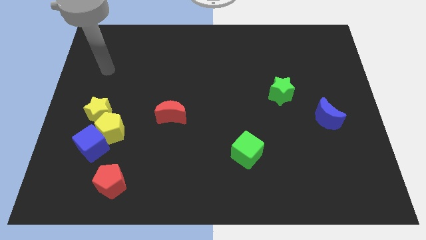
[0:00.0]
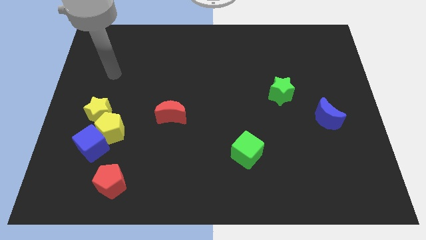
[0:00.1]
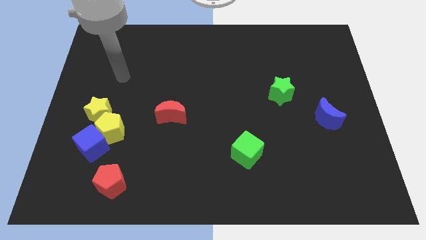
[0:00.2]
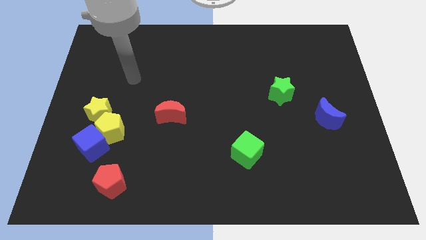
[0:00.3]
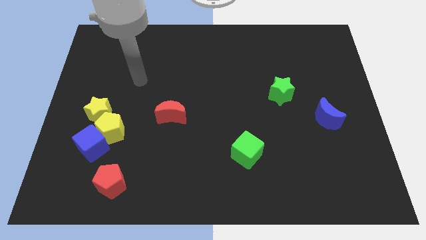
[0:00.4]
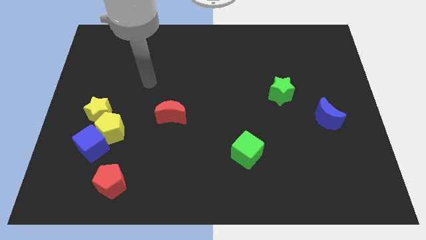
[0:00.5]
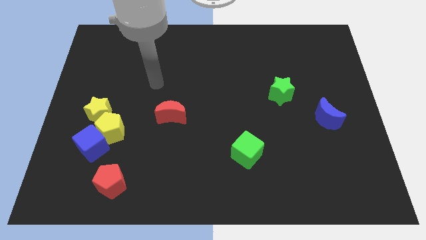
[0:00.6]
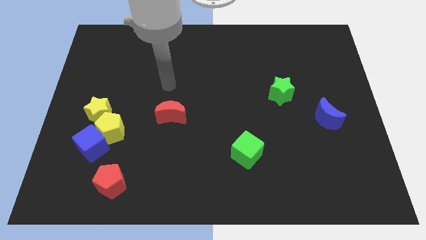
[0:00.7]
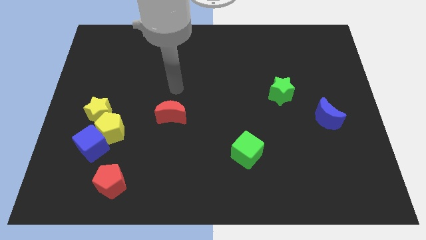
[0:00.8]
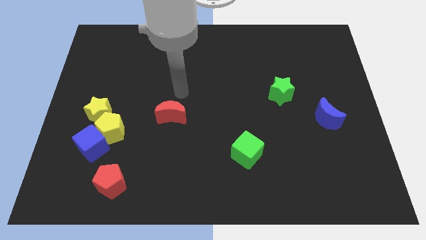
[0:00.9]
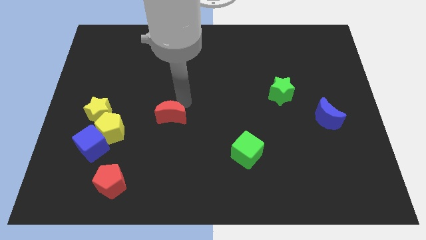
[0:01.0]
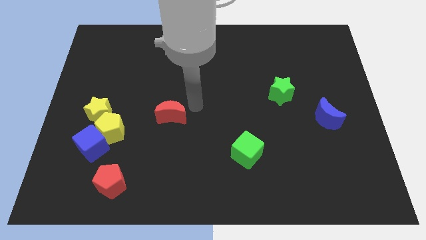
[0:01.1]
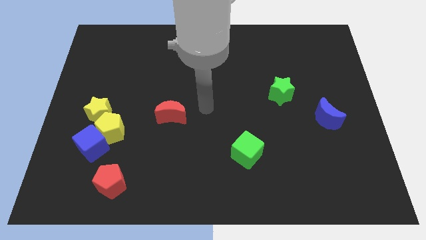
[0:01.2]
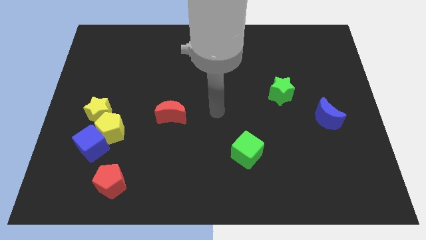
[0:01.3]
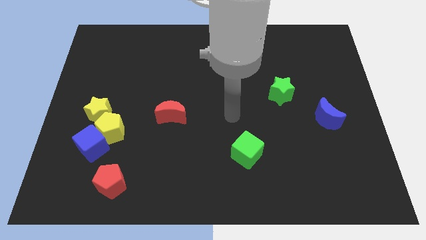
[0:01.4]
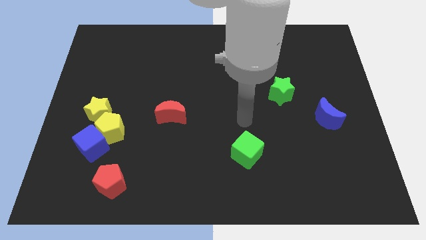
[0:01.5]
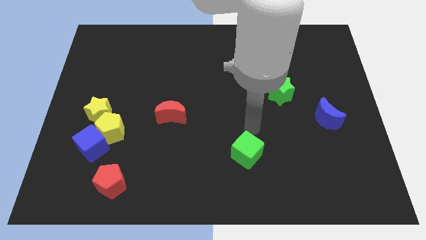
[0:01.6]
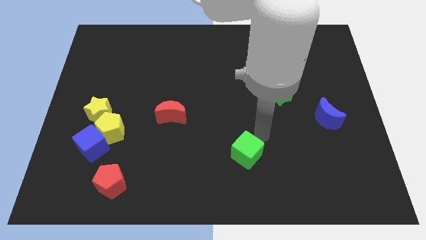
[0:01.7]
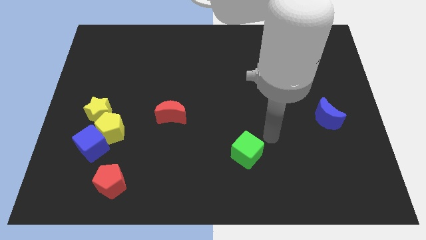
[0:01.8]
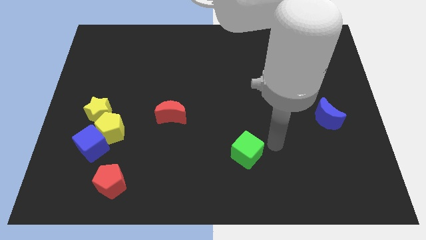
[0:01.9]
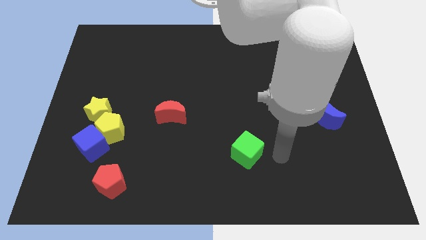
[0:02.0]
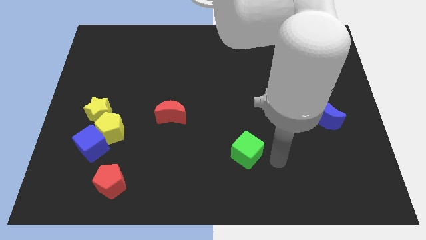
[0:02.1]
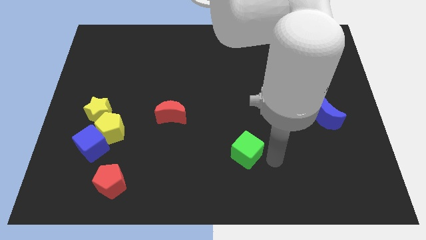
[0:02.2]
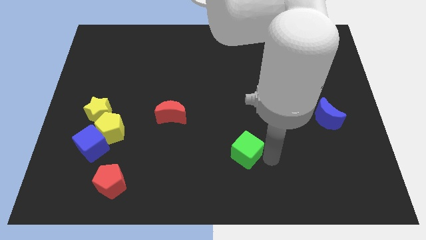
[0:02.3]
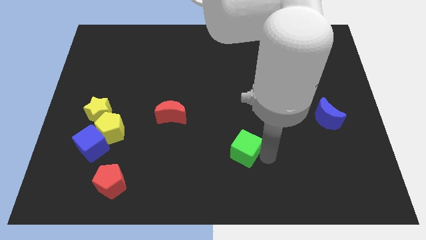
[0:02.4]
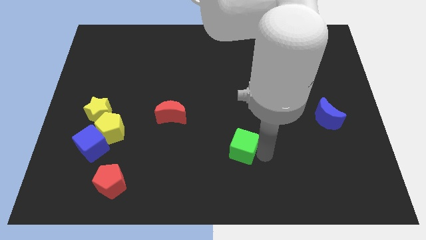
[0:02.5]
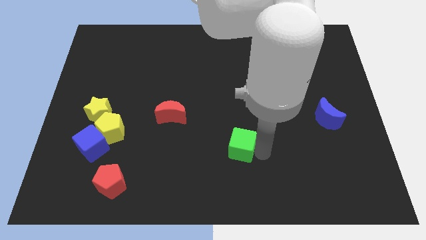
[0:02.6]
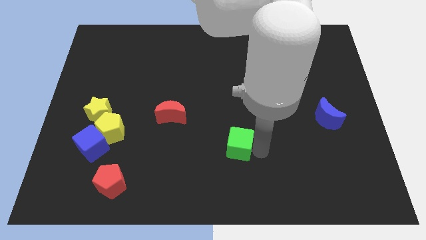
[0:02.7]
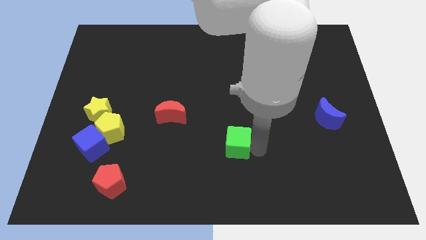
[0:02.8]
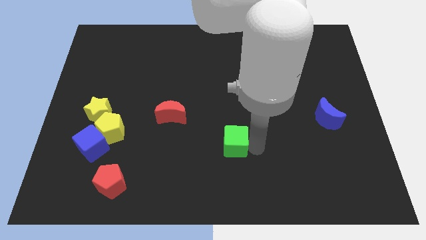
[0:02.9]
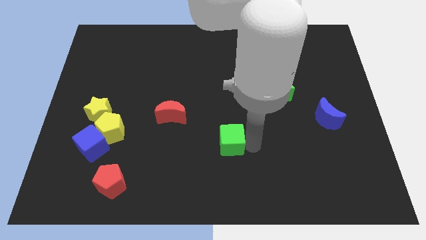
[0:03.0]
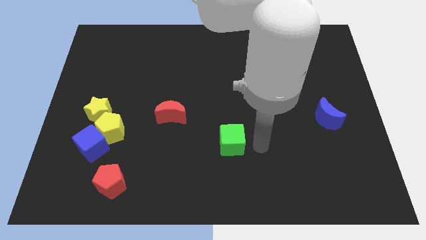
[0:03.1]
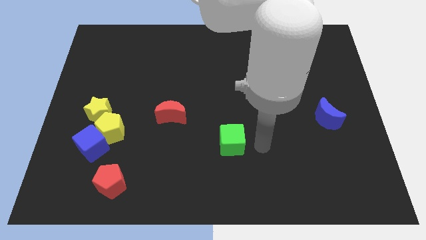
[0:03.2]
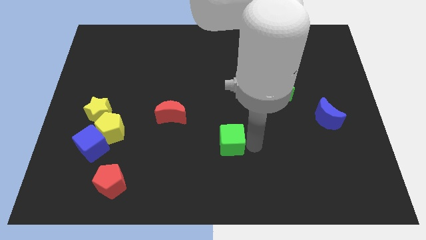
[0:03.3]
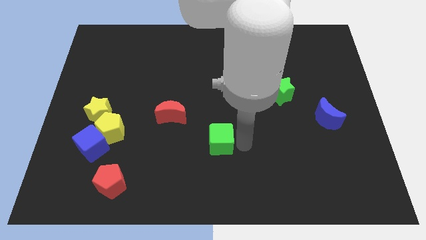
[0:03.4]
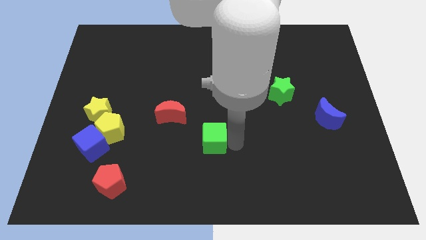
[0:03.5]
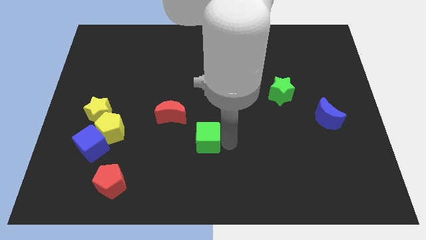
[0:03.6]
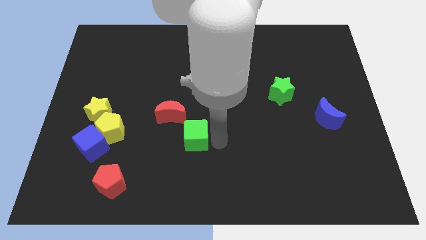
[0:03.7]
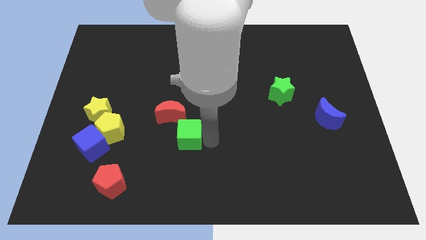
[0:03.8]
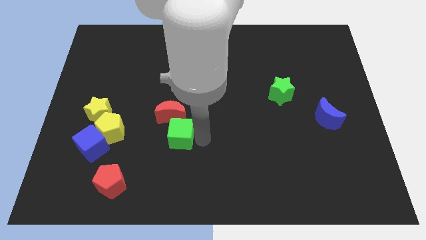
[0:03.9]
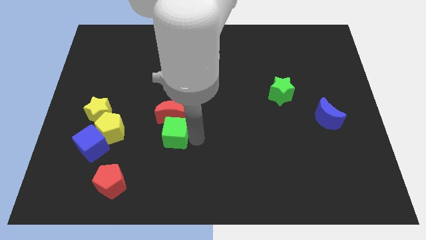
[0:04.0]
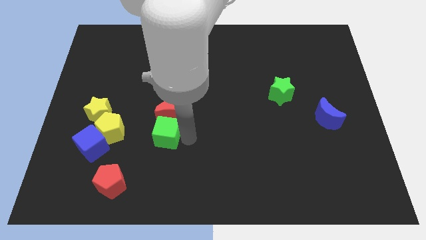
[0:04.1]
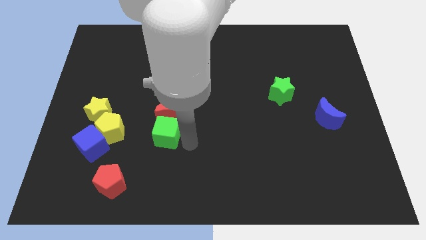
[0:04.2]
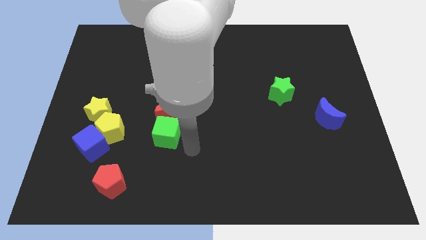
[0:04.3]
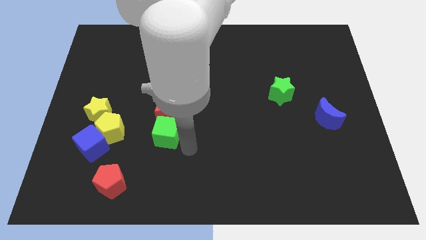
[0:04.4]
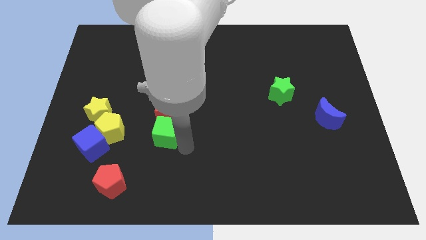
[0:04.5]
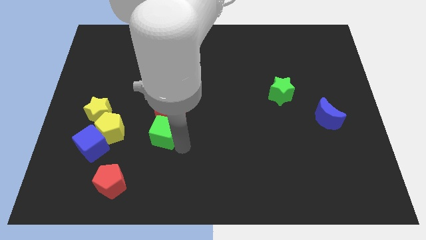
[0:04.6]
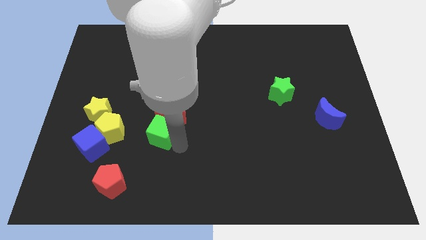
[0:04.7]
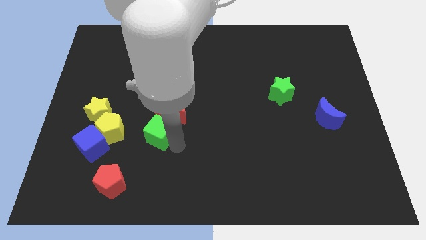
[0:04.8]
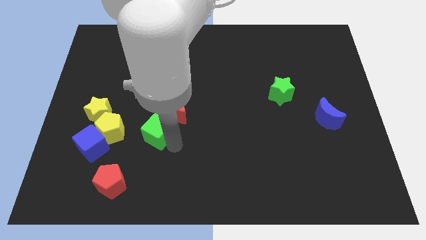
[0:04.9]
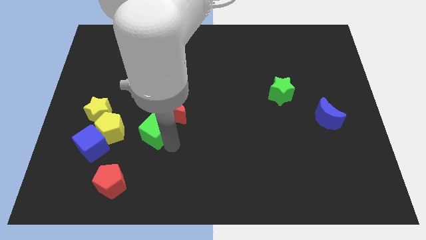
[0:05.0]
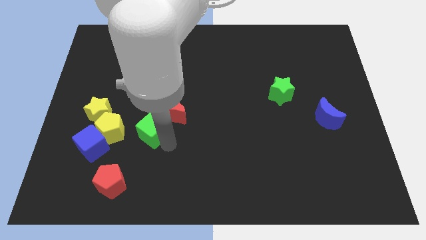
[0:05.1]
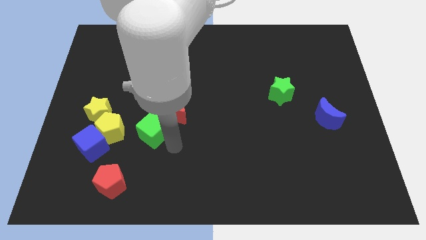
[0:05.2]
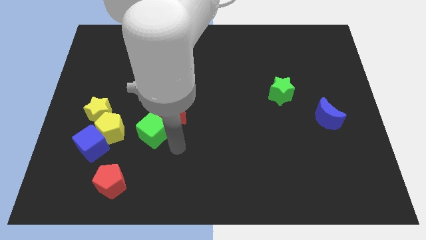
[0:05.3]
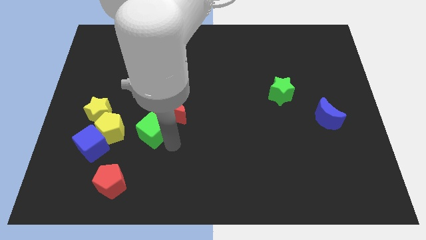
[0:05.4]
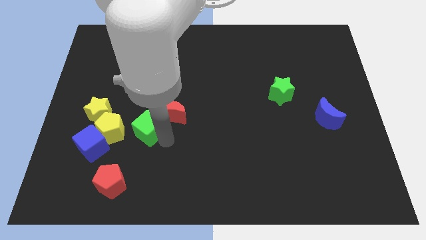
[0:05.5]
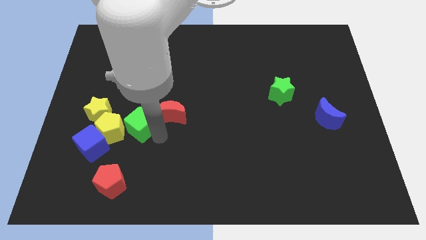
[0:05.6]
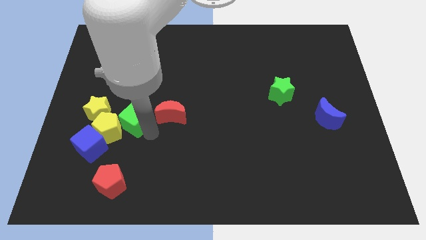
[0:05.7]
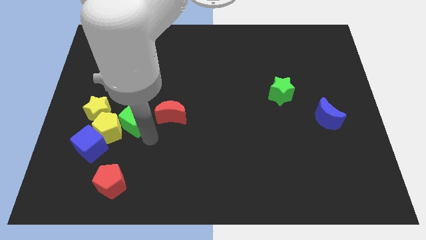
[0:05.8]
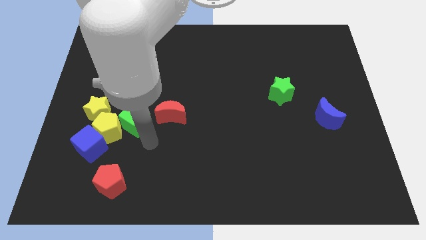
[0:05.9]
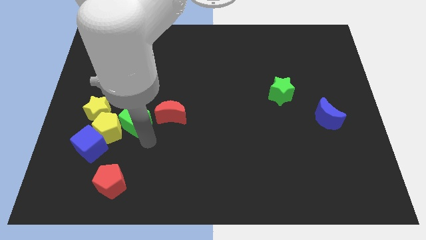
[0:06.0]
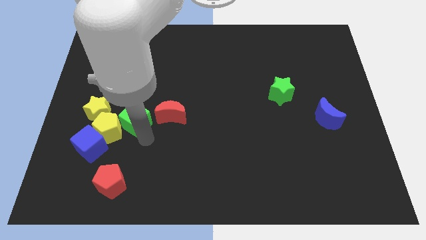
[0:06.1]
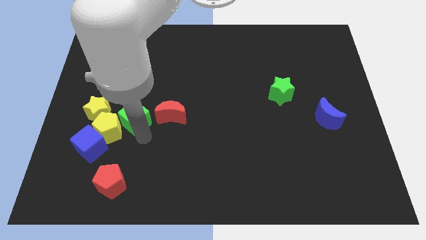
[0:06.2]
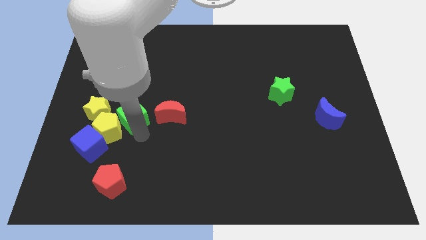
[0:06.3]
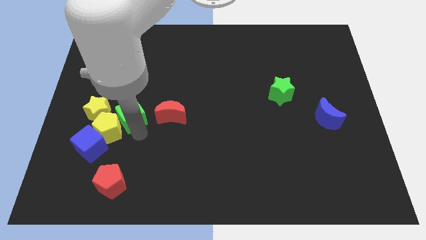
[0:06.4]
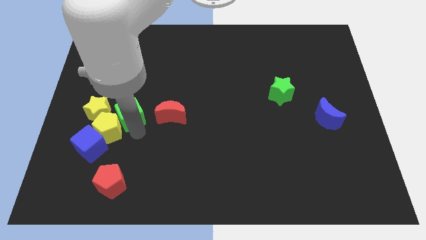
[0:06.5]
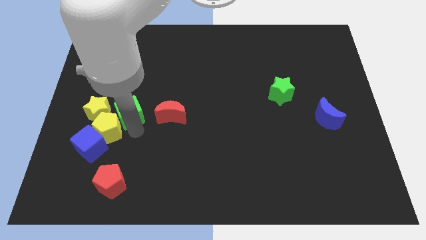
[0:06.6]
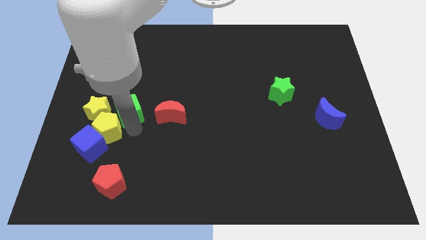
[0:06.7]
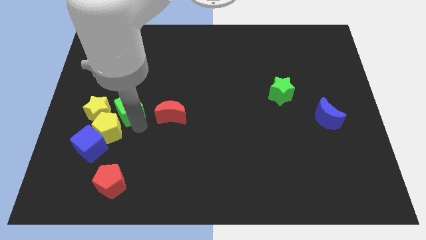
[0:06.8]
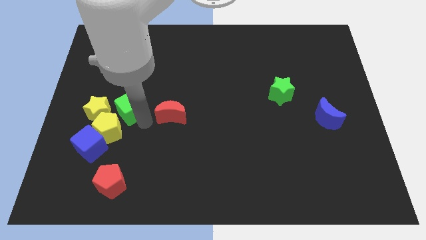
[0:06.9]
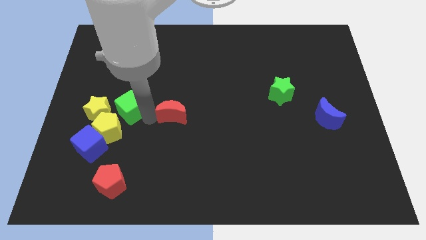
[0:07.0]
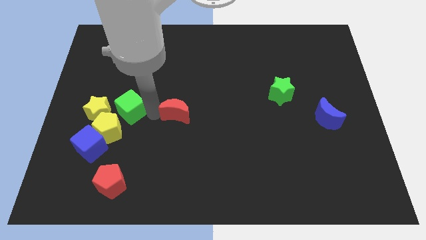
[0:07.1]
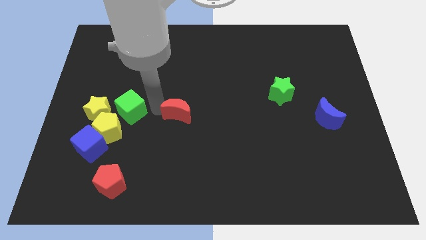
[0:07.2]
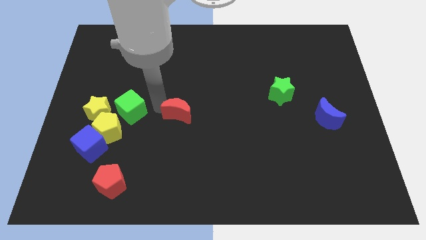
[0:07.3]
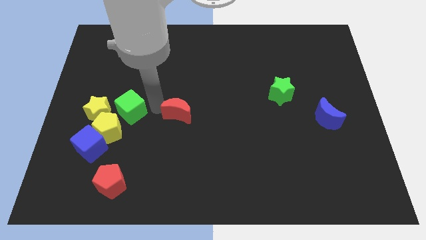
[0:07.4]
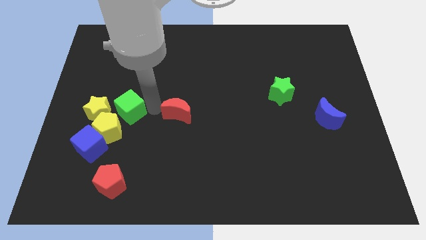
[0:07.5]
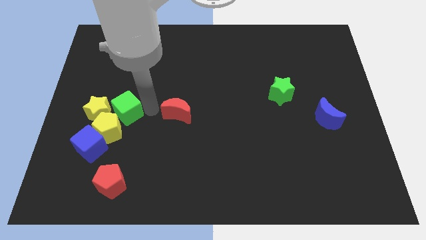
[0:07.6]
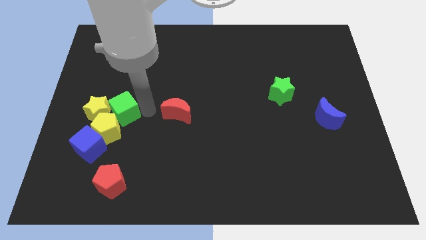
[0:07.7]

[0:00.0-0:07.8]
put the green cube towards the yellow star

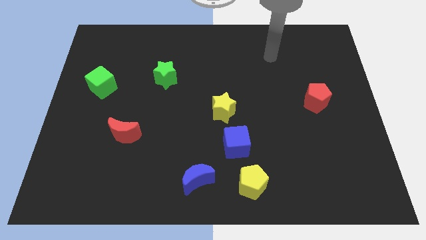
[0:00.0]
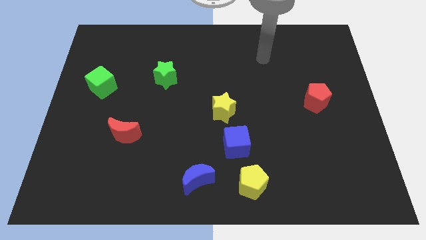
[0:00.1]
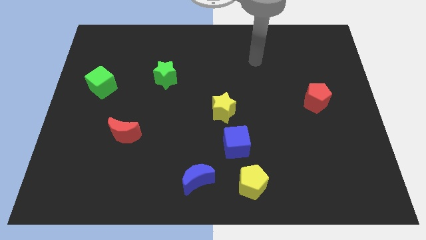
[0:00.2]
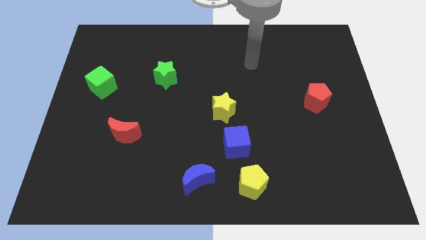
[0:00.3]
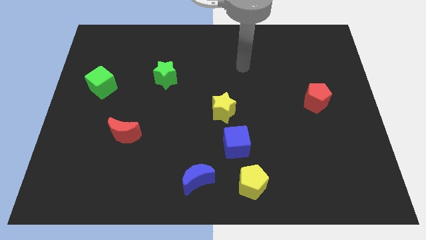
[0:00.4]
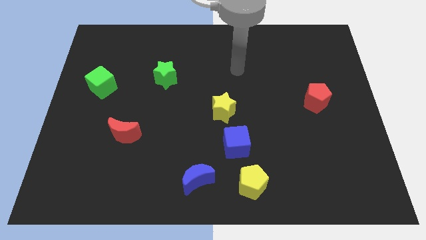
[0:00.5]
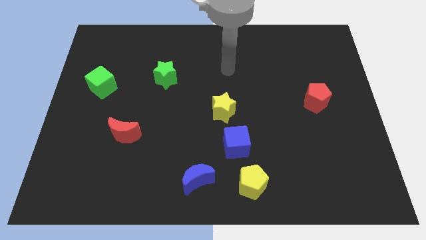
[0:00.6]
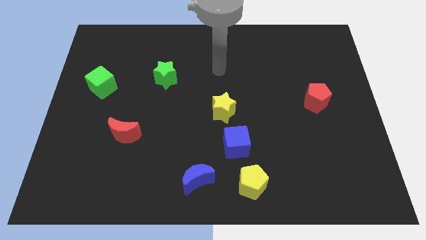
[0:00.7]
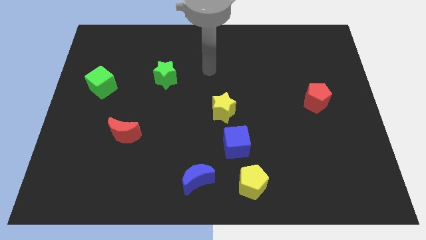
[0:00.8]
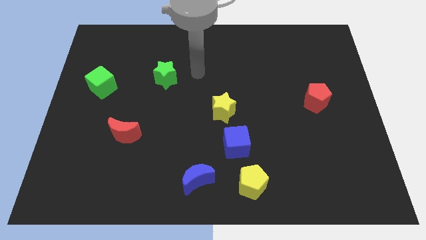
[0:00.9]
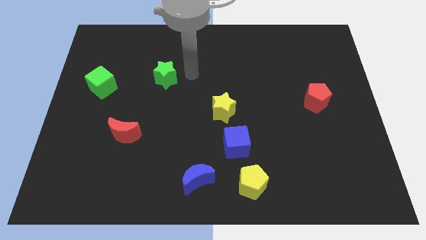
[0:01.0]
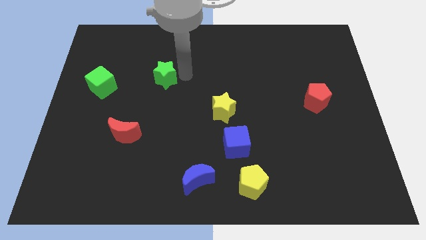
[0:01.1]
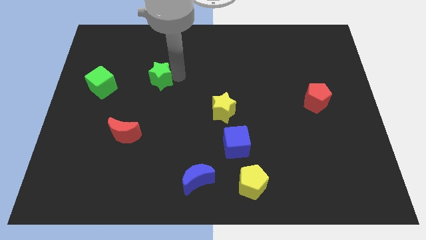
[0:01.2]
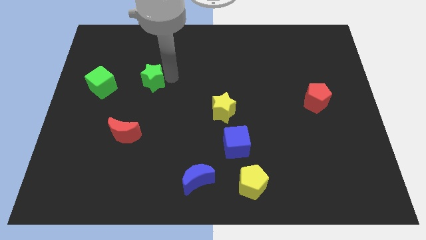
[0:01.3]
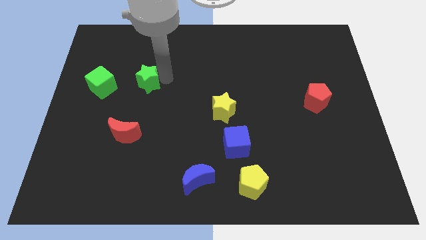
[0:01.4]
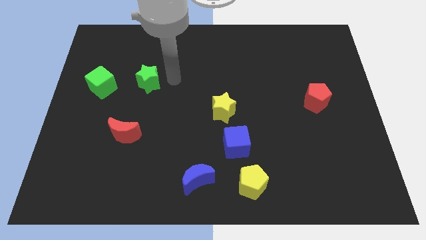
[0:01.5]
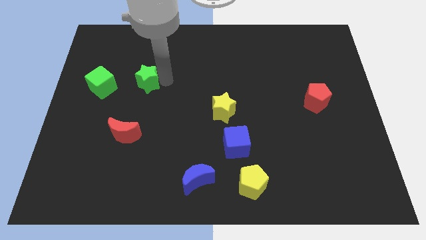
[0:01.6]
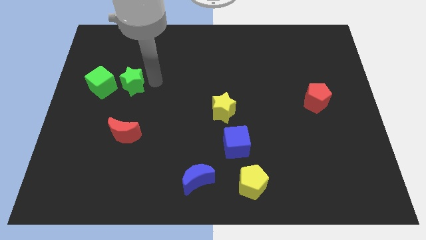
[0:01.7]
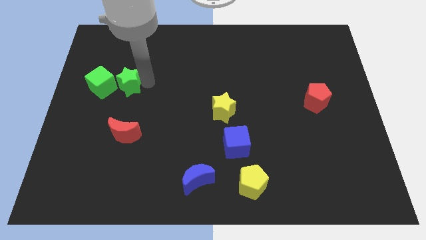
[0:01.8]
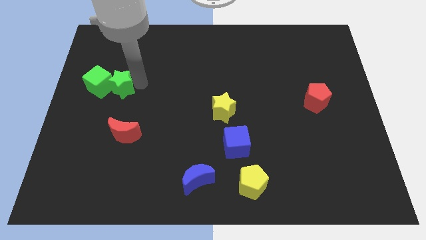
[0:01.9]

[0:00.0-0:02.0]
push the green star to the green cube
